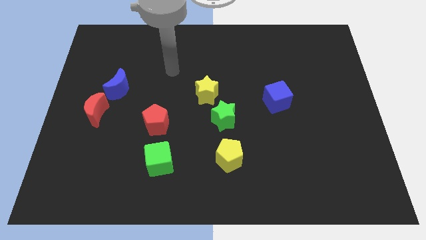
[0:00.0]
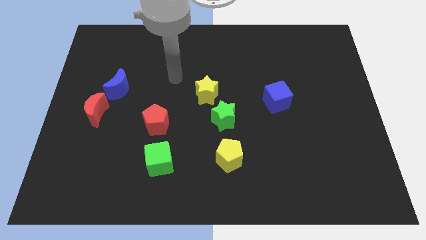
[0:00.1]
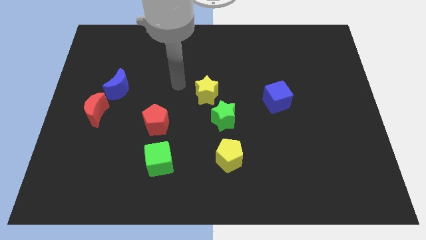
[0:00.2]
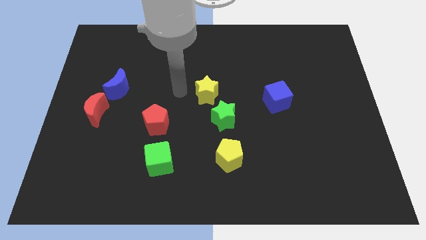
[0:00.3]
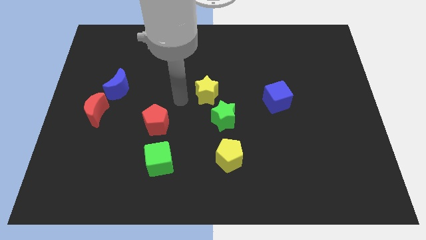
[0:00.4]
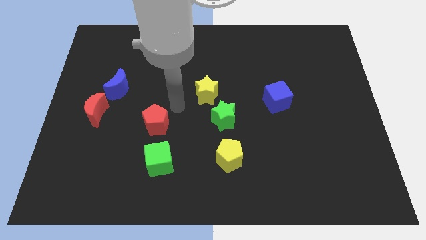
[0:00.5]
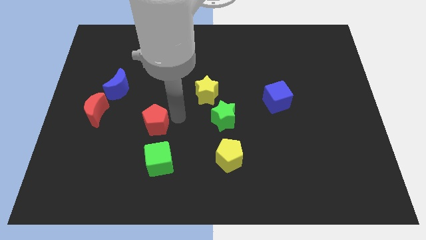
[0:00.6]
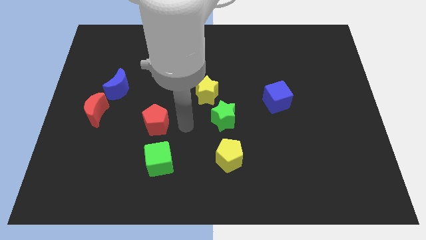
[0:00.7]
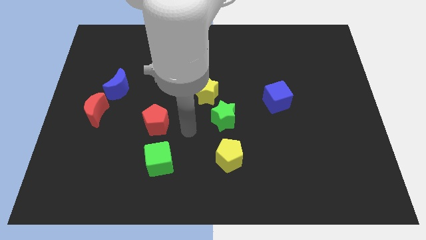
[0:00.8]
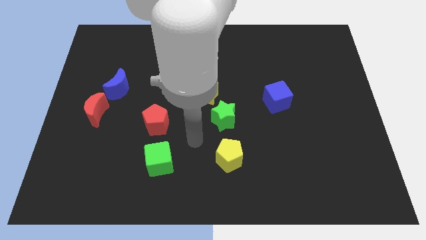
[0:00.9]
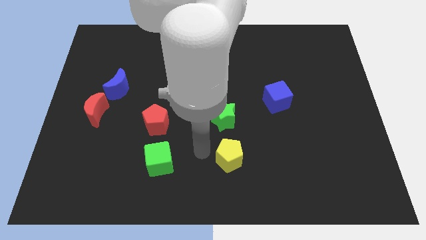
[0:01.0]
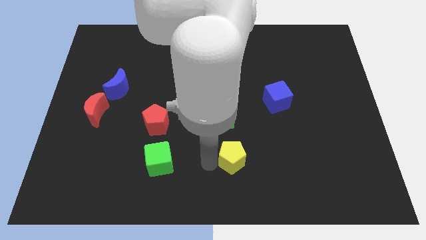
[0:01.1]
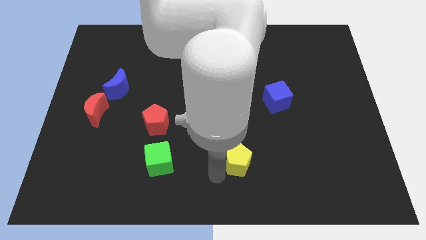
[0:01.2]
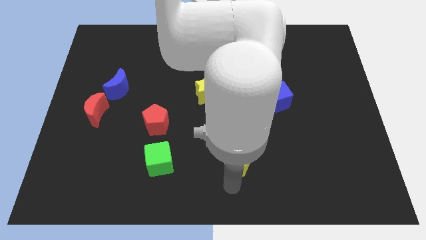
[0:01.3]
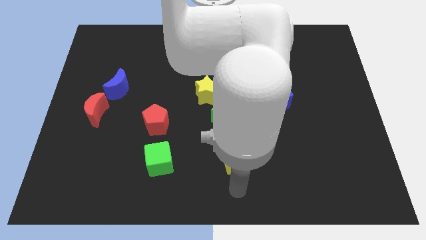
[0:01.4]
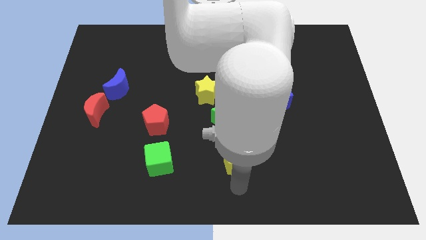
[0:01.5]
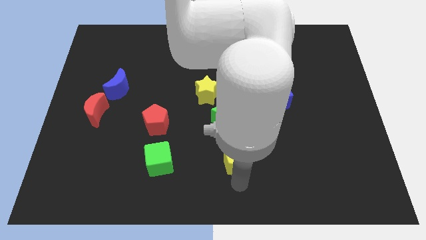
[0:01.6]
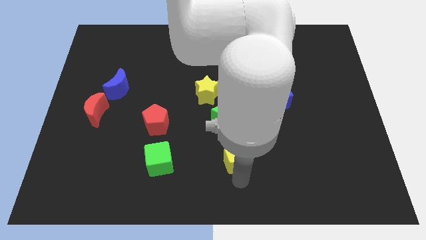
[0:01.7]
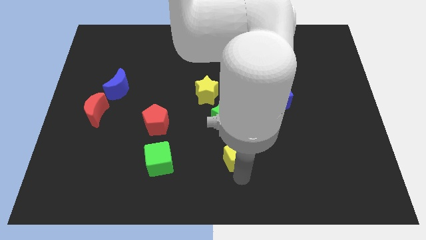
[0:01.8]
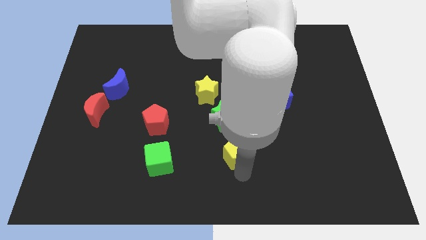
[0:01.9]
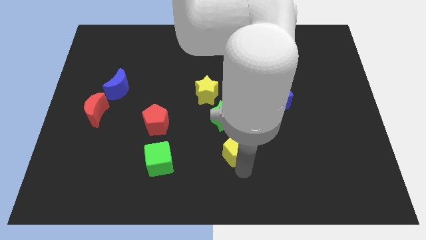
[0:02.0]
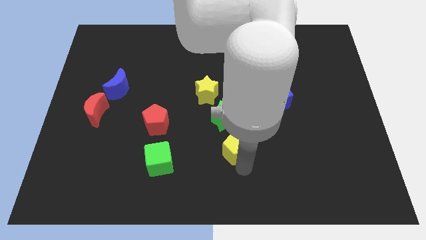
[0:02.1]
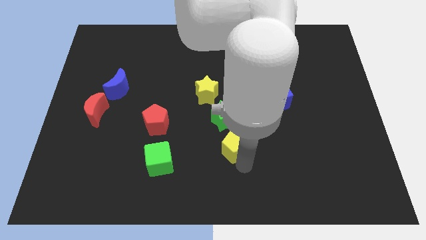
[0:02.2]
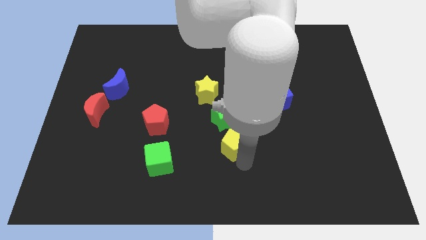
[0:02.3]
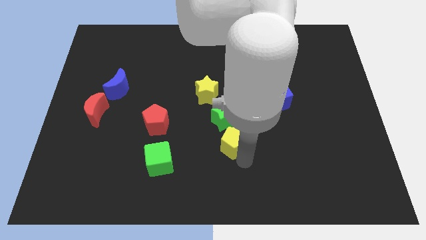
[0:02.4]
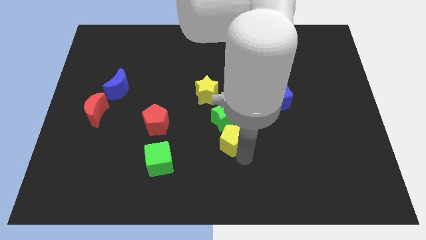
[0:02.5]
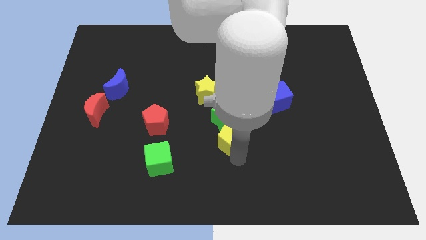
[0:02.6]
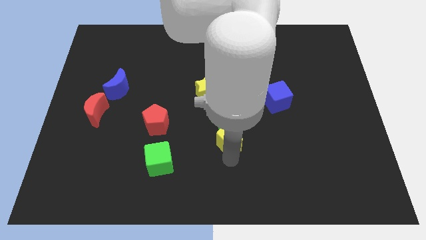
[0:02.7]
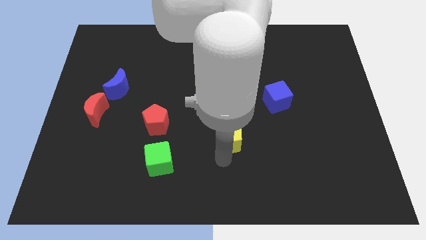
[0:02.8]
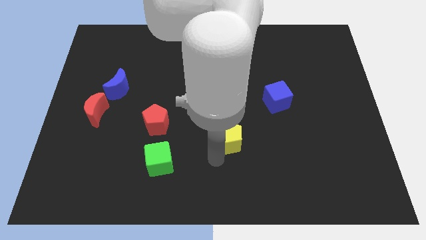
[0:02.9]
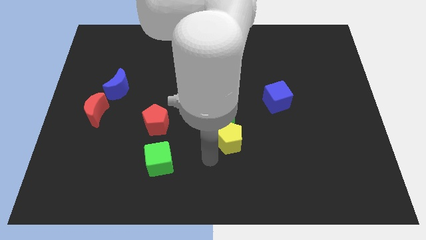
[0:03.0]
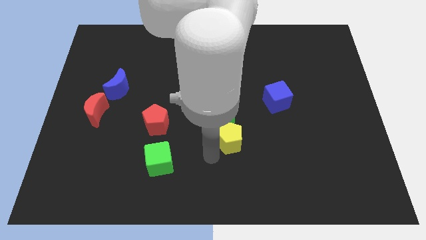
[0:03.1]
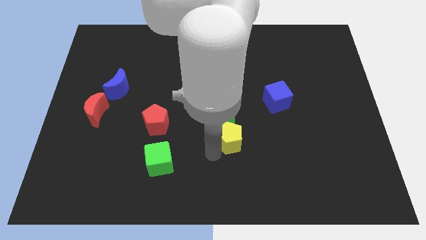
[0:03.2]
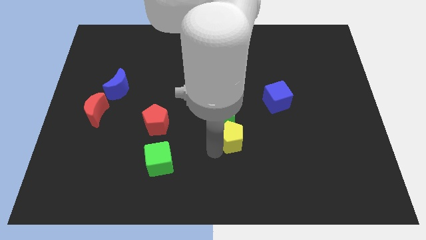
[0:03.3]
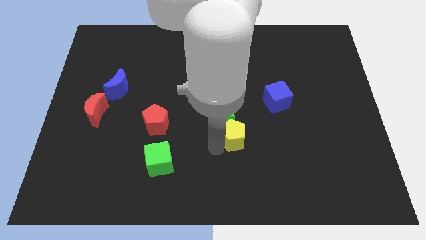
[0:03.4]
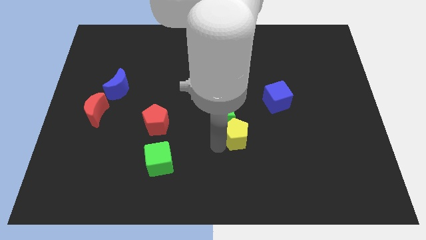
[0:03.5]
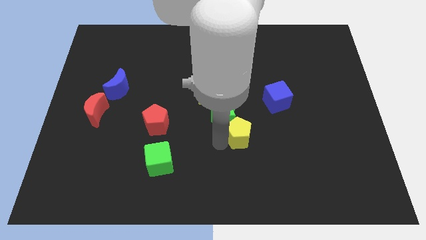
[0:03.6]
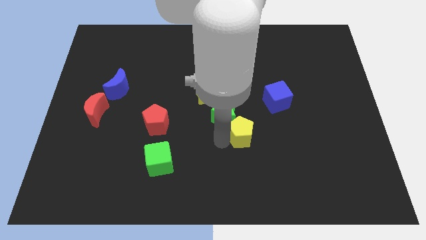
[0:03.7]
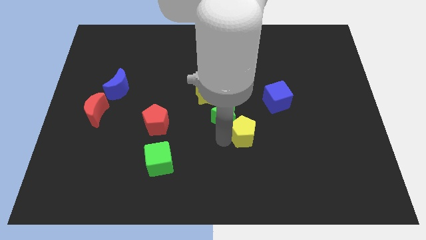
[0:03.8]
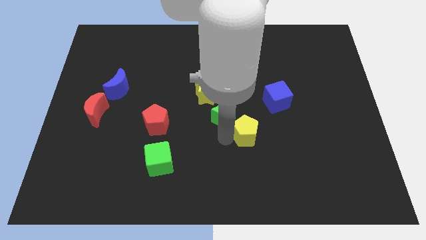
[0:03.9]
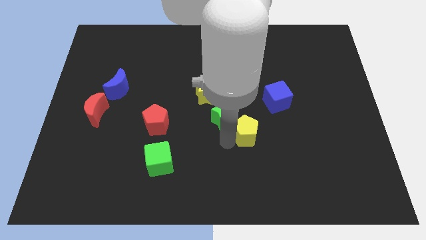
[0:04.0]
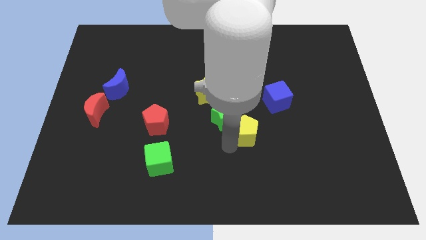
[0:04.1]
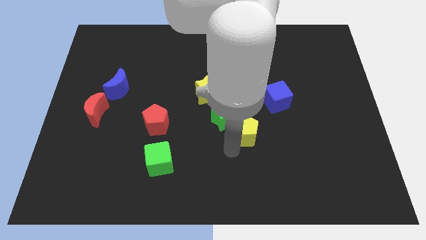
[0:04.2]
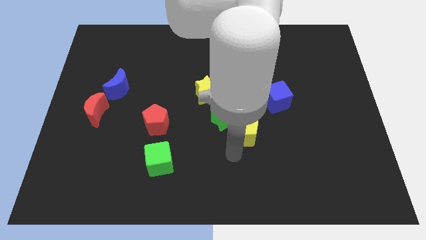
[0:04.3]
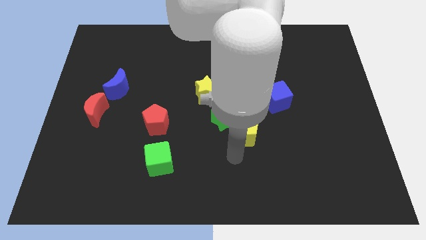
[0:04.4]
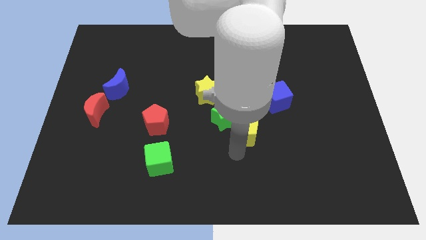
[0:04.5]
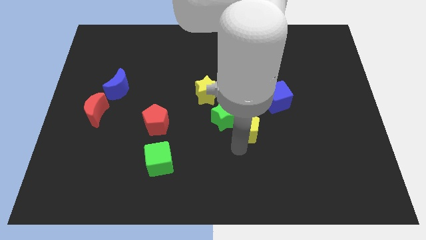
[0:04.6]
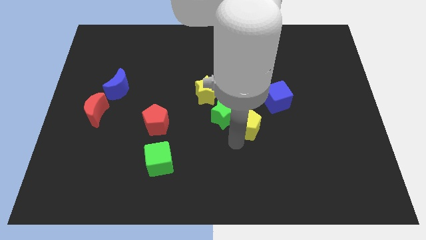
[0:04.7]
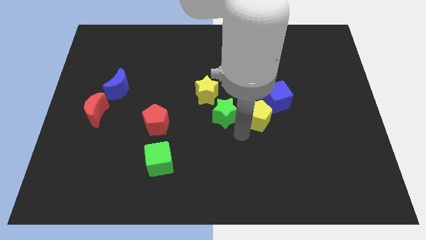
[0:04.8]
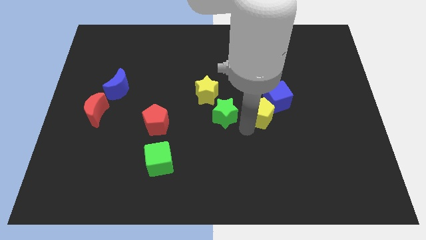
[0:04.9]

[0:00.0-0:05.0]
push the yellow pentagon close to the blue cube

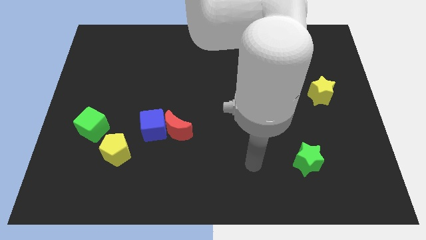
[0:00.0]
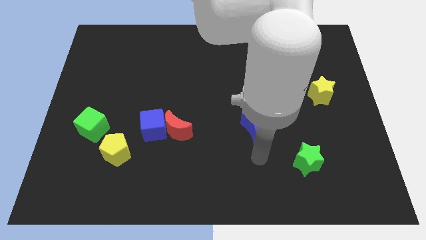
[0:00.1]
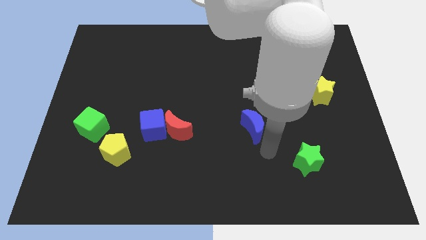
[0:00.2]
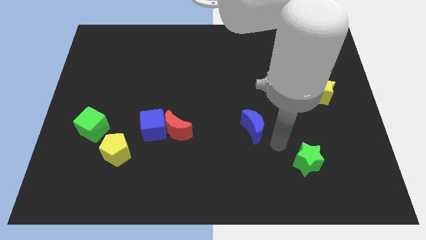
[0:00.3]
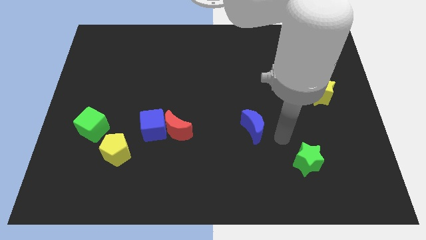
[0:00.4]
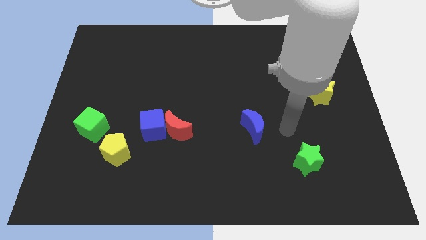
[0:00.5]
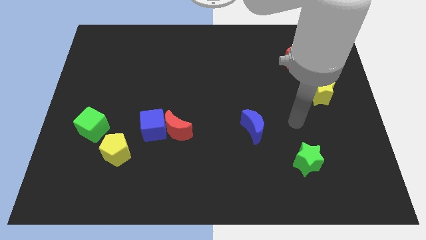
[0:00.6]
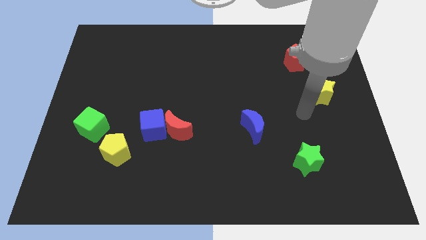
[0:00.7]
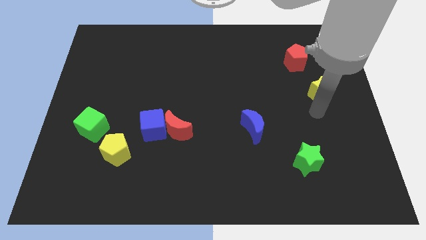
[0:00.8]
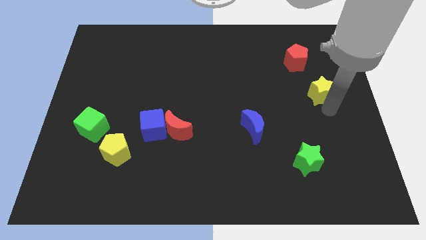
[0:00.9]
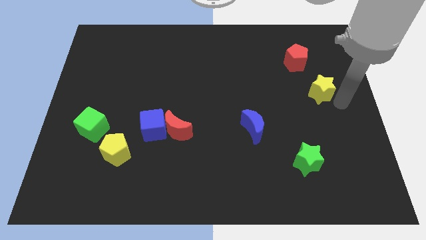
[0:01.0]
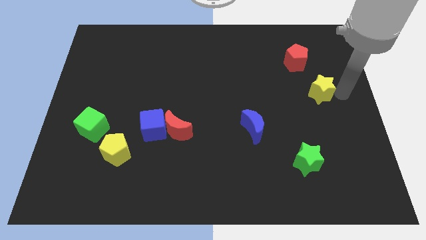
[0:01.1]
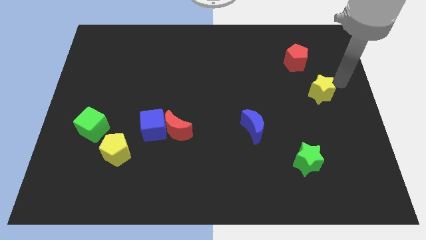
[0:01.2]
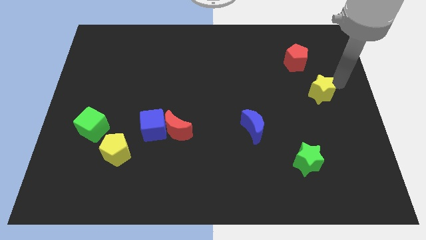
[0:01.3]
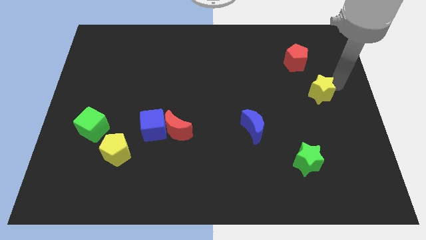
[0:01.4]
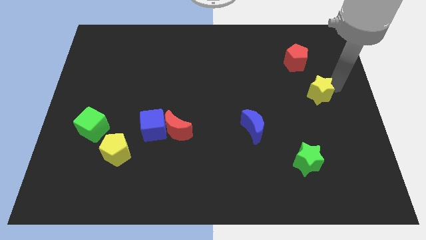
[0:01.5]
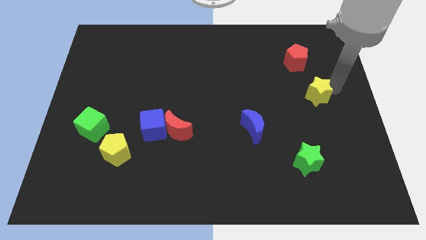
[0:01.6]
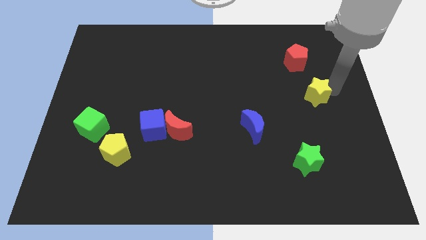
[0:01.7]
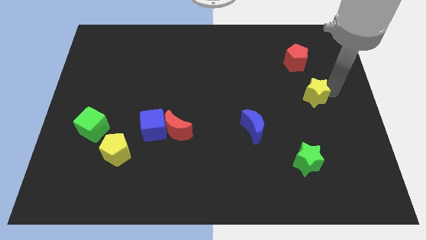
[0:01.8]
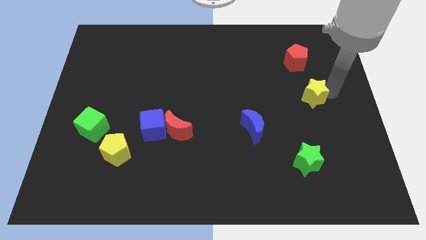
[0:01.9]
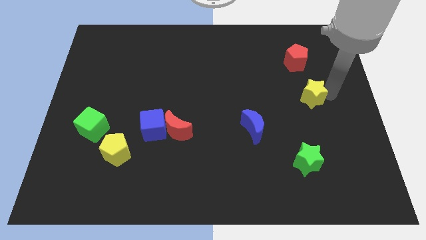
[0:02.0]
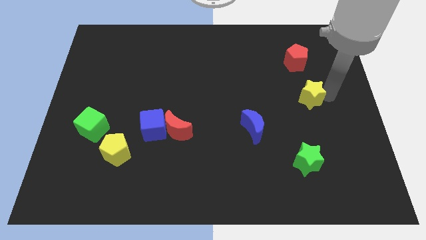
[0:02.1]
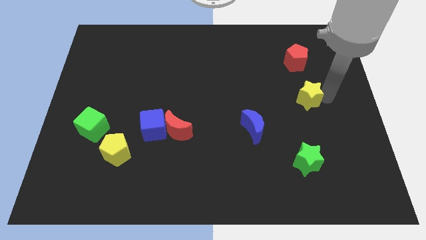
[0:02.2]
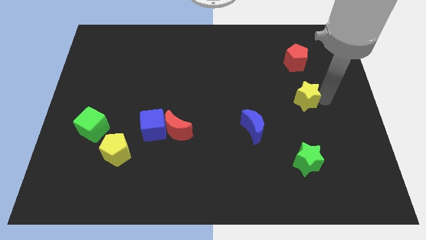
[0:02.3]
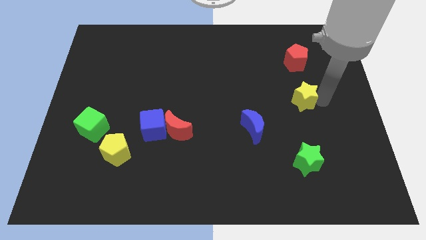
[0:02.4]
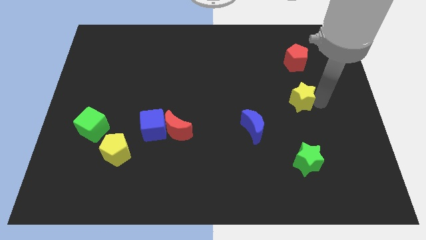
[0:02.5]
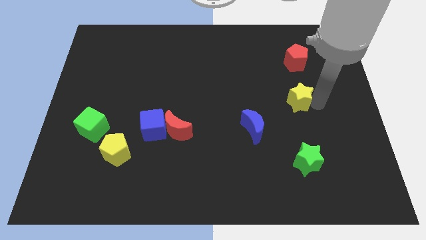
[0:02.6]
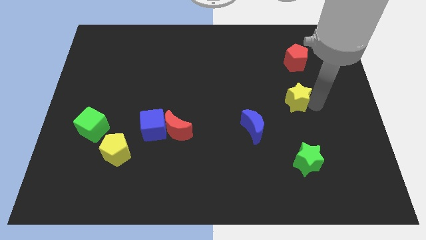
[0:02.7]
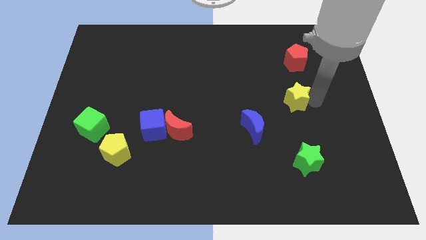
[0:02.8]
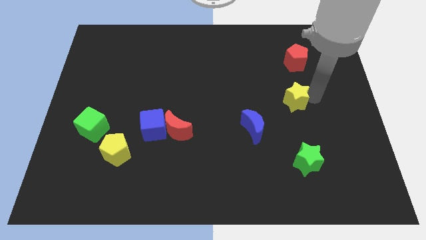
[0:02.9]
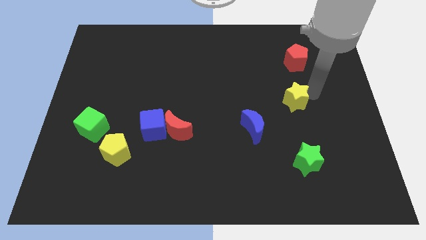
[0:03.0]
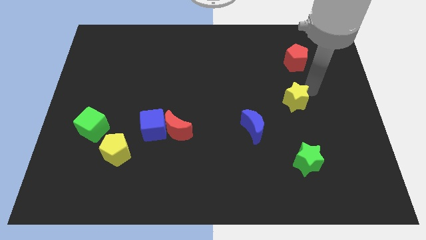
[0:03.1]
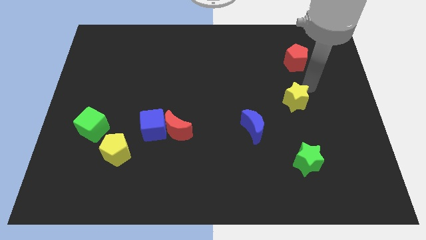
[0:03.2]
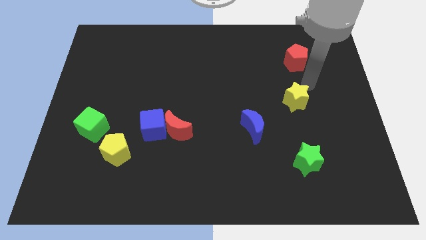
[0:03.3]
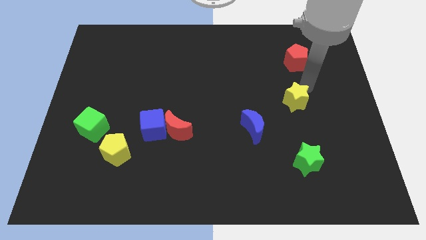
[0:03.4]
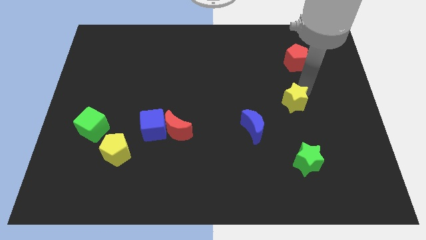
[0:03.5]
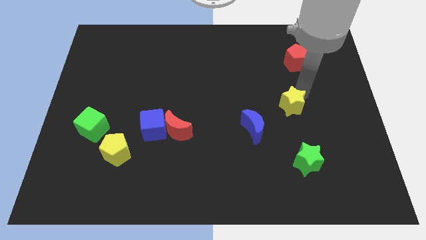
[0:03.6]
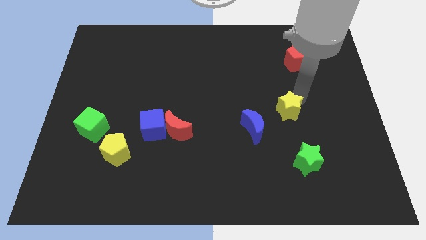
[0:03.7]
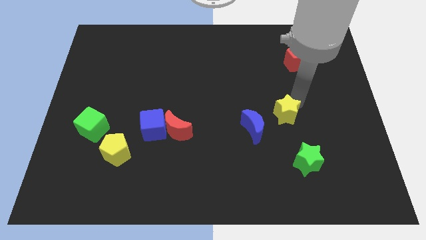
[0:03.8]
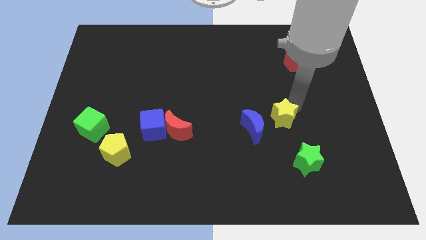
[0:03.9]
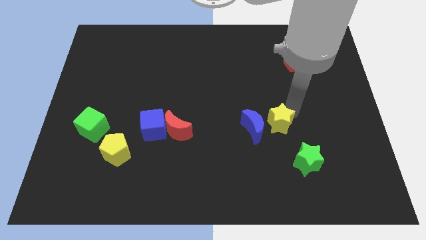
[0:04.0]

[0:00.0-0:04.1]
put the yellow star next to the blue moon
